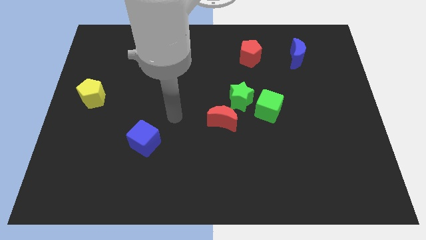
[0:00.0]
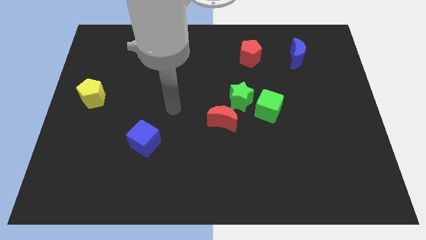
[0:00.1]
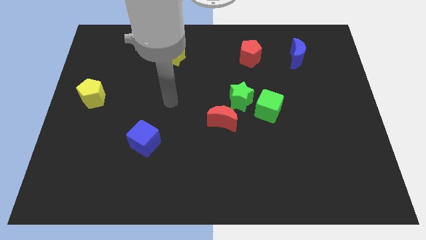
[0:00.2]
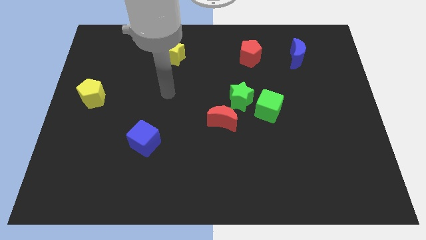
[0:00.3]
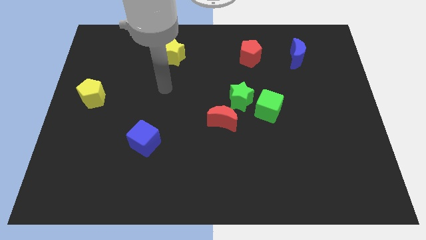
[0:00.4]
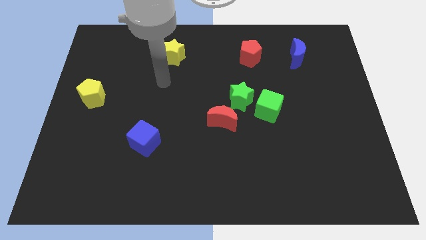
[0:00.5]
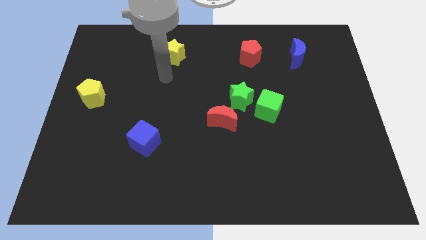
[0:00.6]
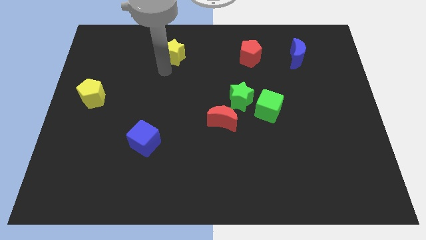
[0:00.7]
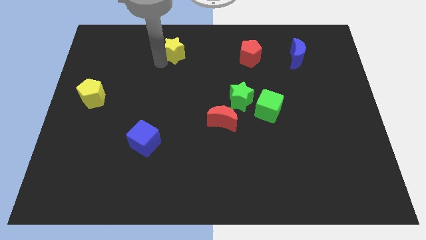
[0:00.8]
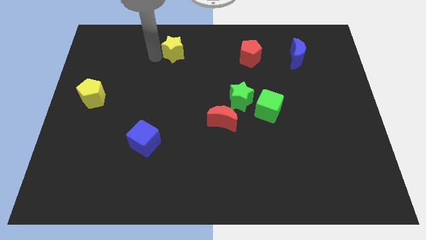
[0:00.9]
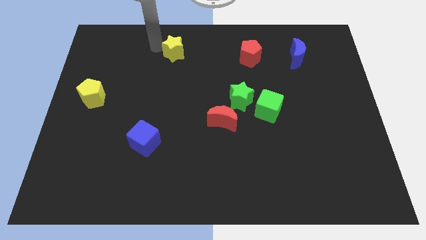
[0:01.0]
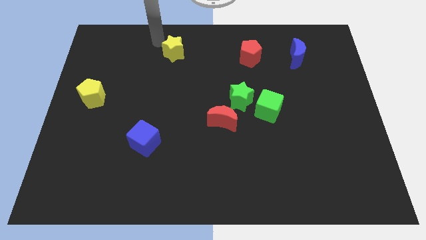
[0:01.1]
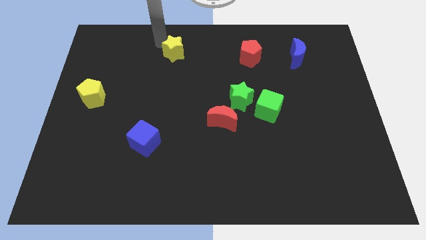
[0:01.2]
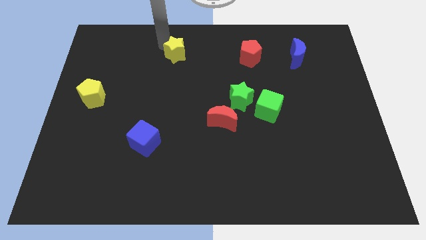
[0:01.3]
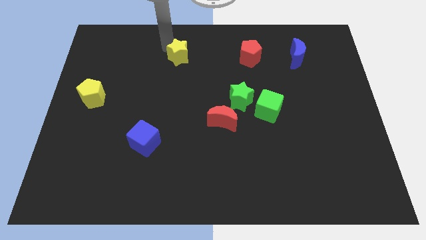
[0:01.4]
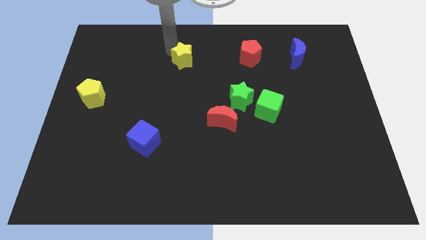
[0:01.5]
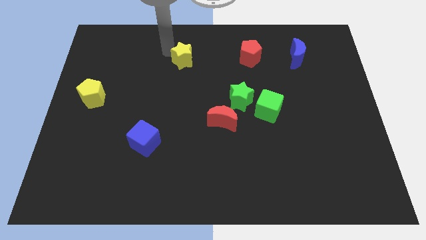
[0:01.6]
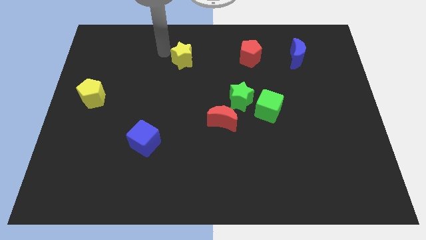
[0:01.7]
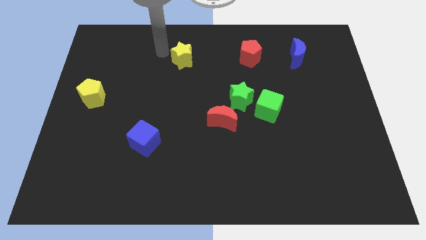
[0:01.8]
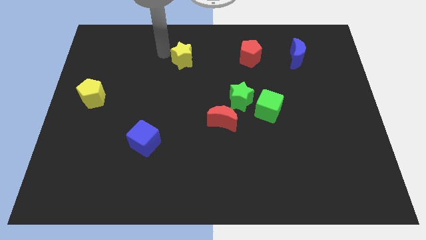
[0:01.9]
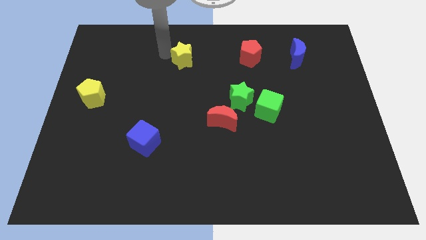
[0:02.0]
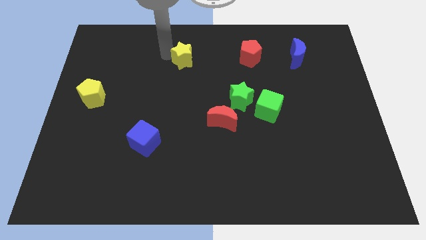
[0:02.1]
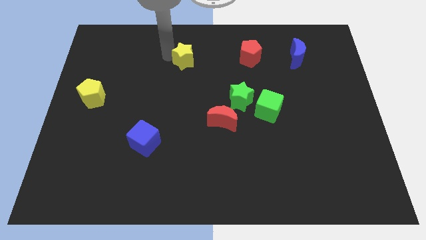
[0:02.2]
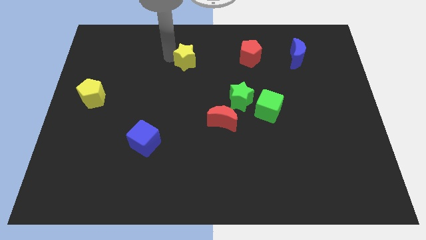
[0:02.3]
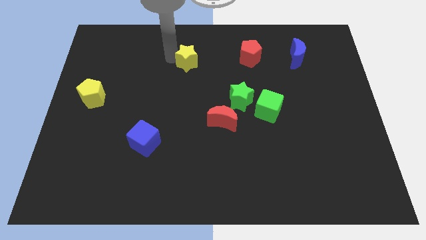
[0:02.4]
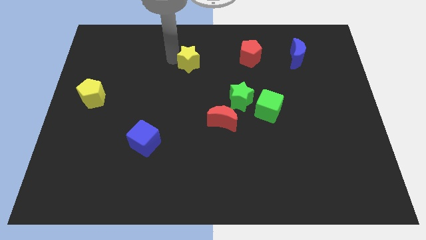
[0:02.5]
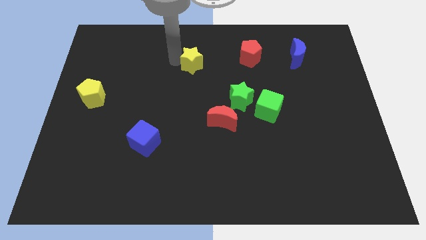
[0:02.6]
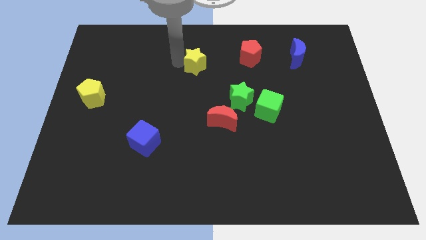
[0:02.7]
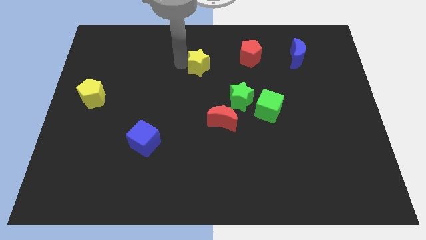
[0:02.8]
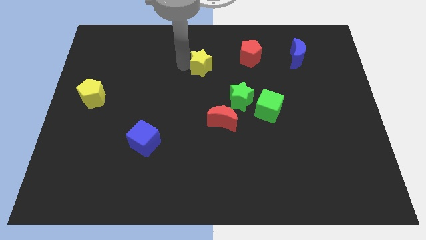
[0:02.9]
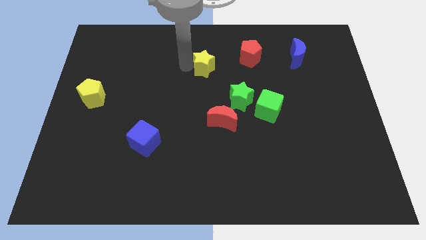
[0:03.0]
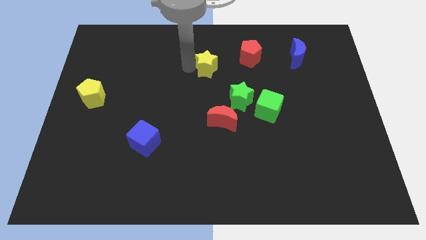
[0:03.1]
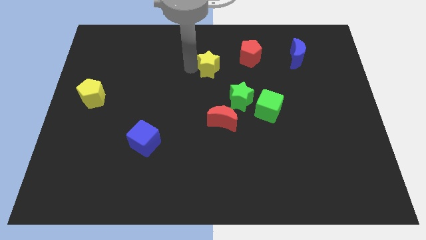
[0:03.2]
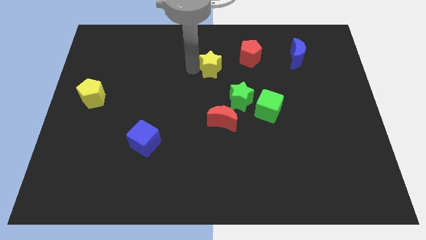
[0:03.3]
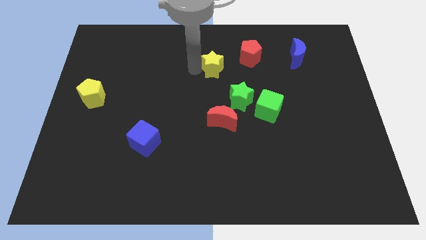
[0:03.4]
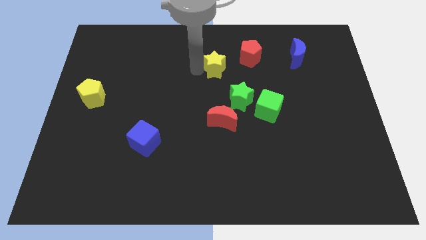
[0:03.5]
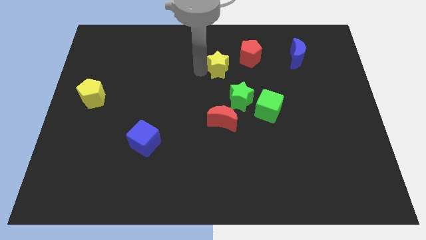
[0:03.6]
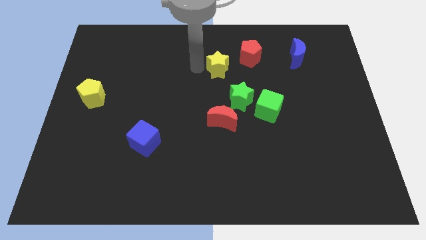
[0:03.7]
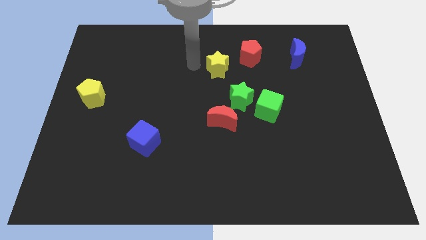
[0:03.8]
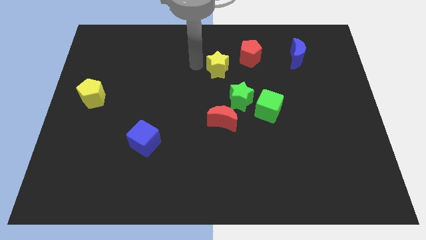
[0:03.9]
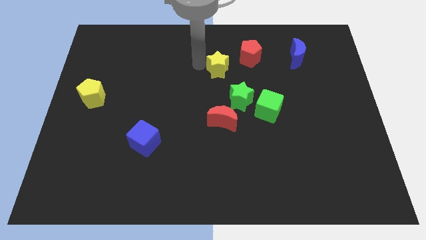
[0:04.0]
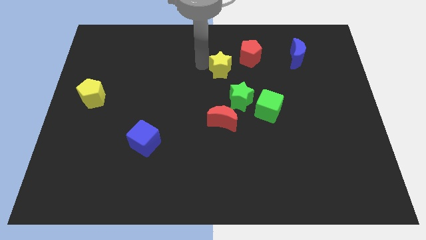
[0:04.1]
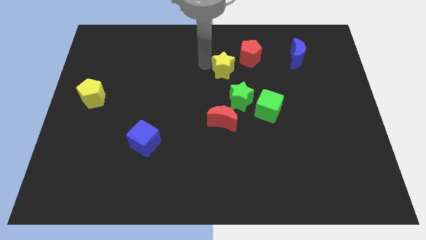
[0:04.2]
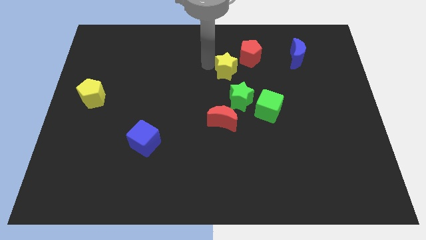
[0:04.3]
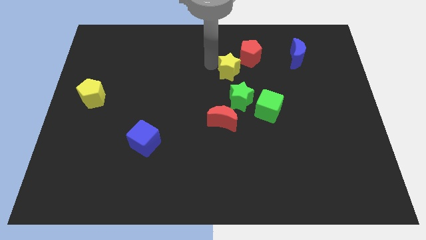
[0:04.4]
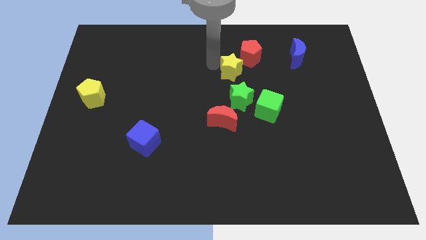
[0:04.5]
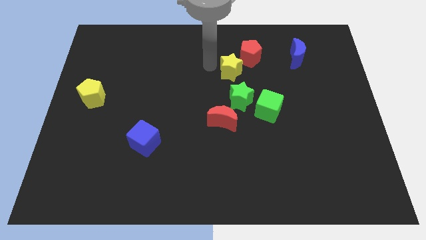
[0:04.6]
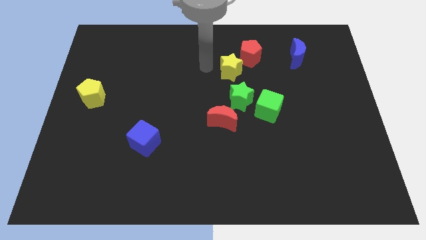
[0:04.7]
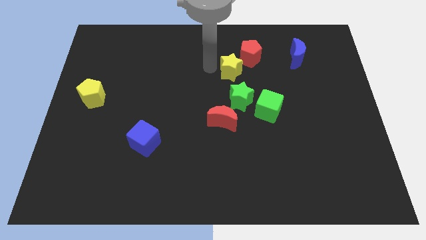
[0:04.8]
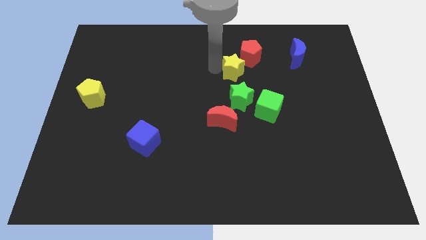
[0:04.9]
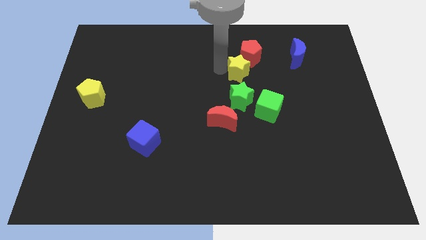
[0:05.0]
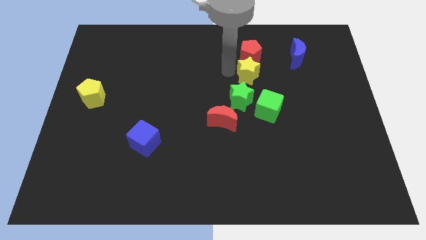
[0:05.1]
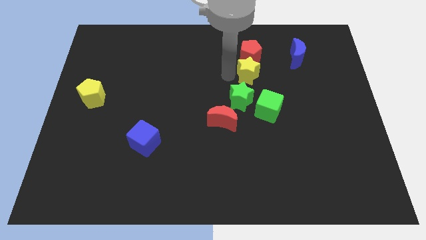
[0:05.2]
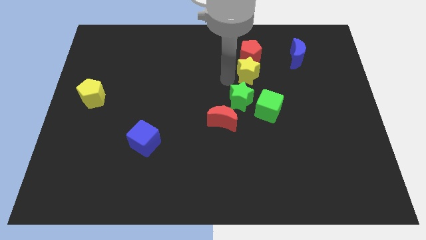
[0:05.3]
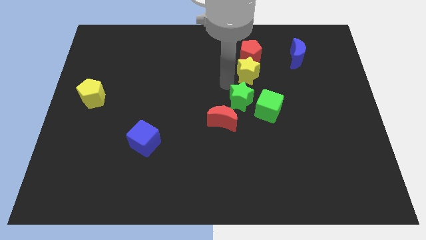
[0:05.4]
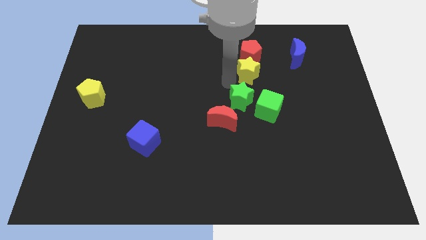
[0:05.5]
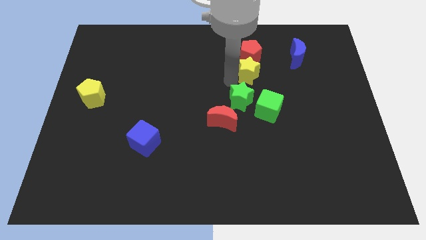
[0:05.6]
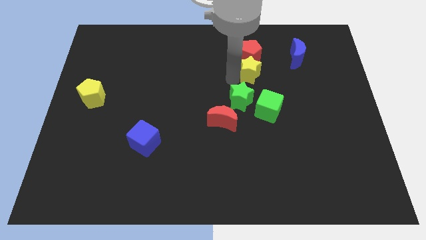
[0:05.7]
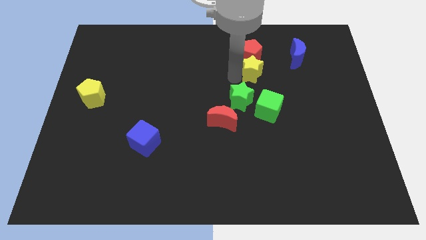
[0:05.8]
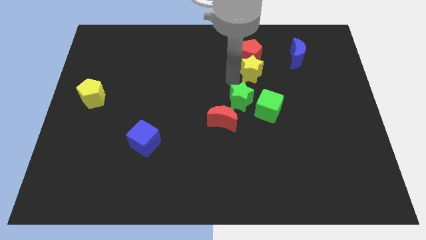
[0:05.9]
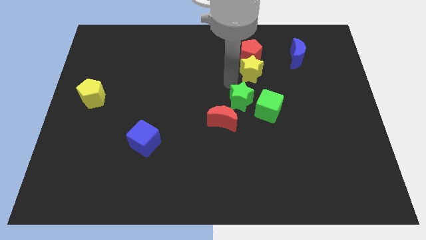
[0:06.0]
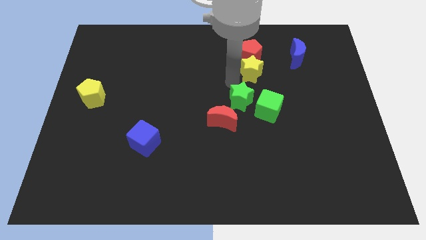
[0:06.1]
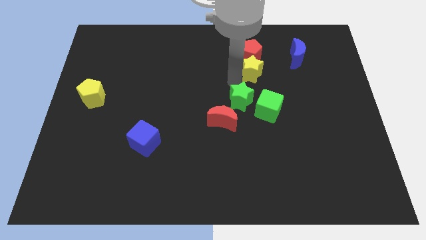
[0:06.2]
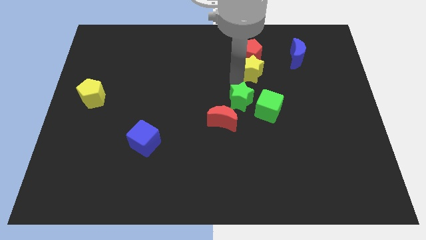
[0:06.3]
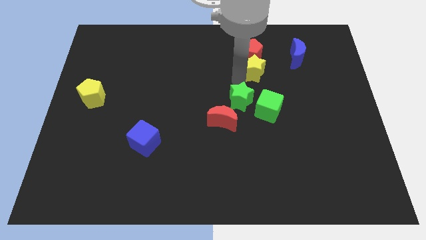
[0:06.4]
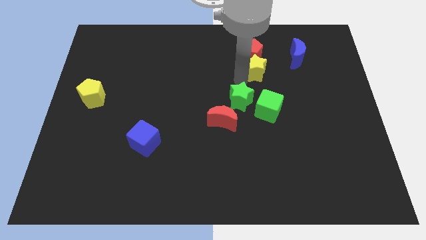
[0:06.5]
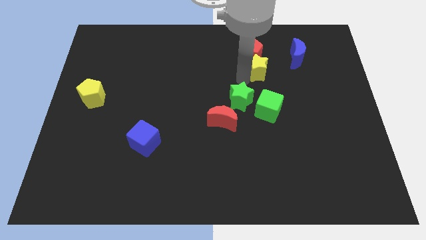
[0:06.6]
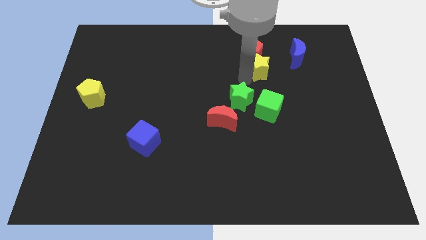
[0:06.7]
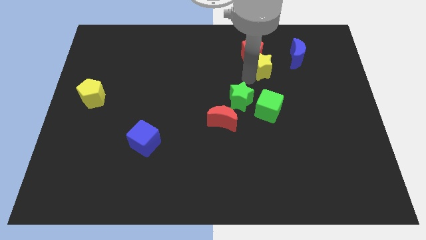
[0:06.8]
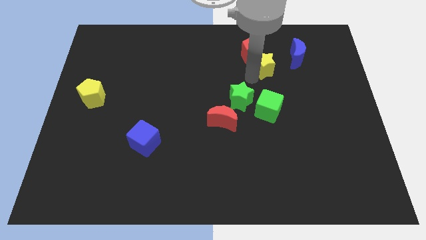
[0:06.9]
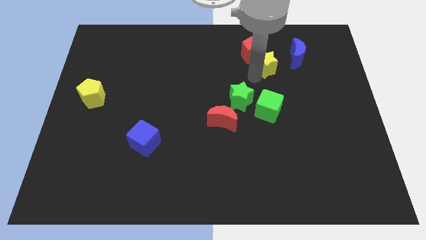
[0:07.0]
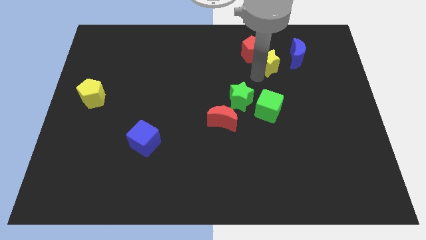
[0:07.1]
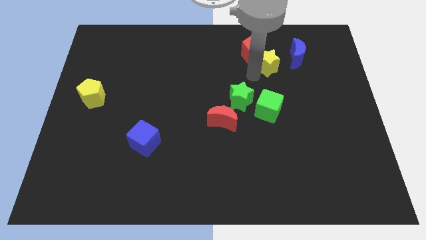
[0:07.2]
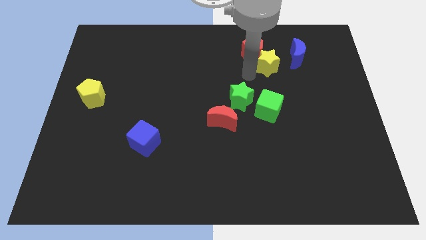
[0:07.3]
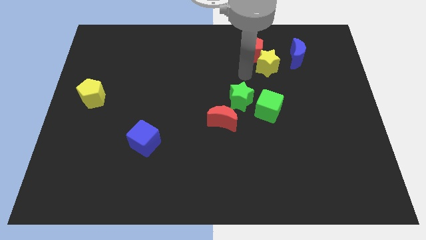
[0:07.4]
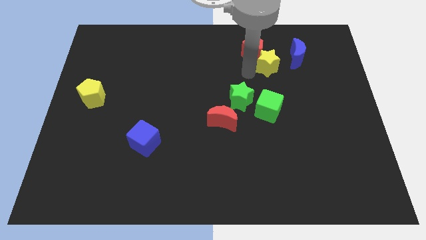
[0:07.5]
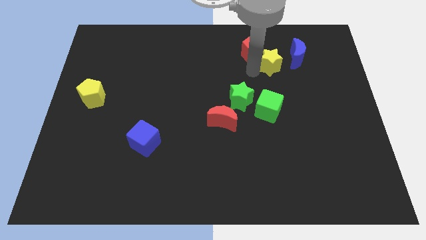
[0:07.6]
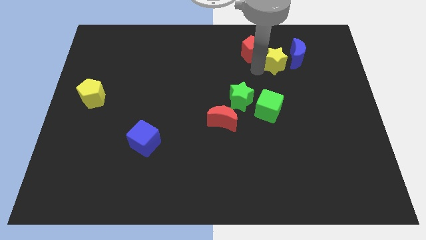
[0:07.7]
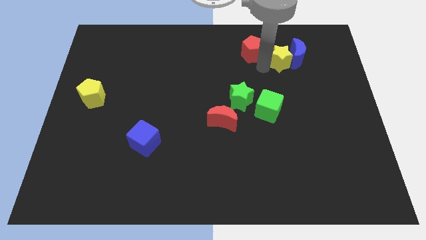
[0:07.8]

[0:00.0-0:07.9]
move the yellow star close to the blue moon
